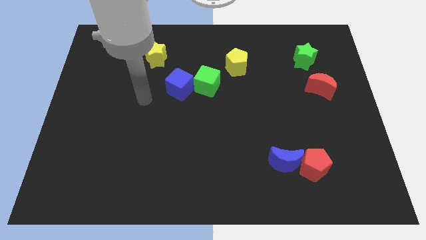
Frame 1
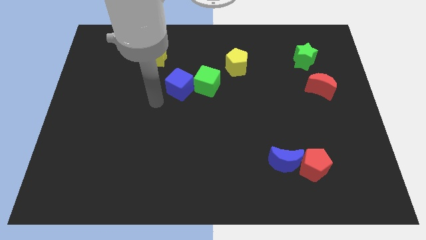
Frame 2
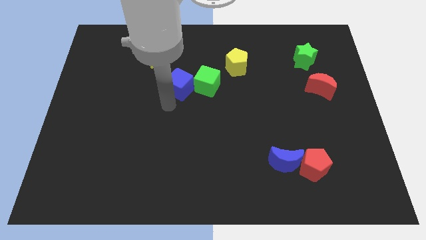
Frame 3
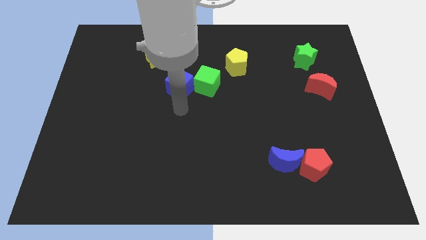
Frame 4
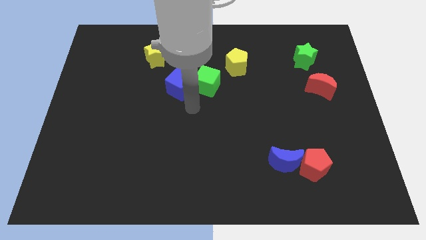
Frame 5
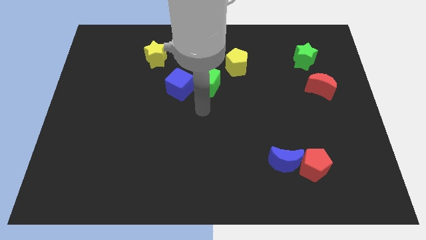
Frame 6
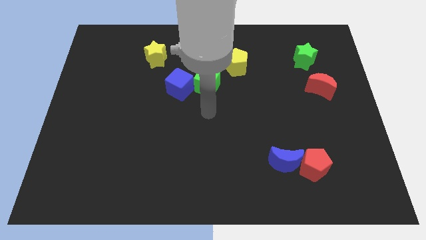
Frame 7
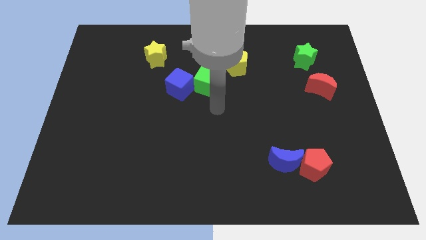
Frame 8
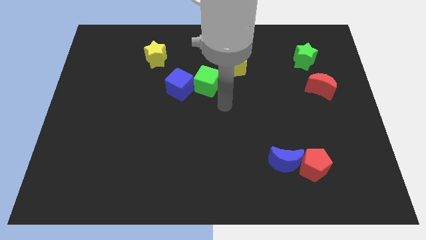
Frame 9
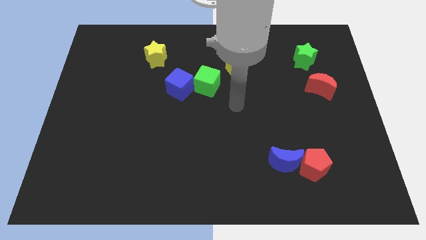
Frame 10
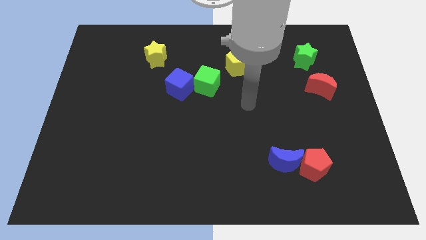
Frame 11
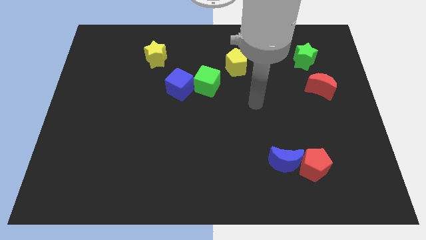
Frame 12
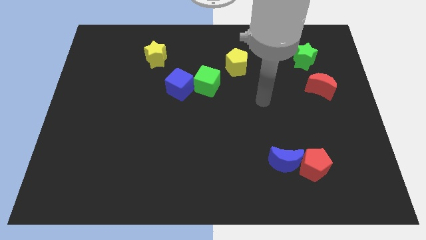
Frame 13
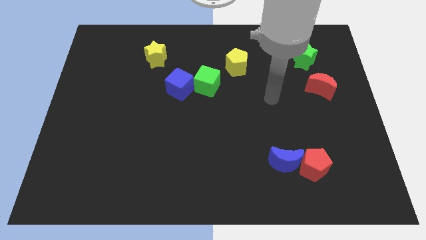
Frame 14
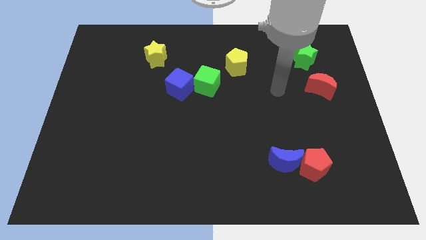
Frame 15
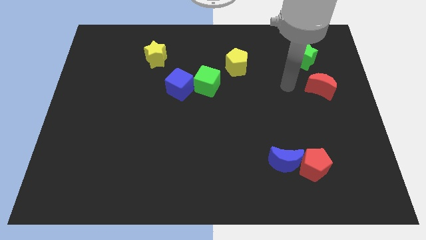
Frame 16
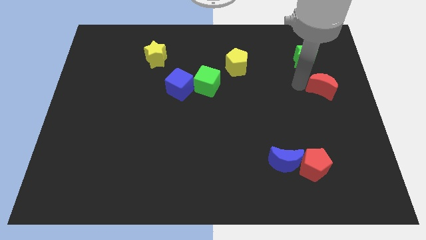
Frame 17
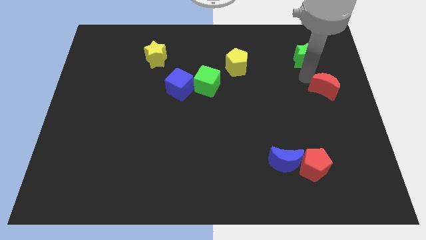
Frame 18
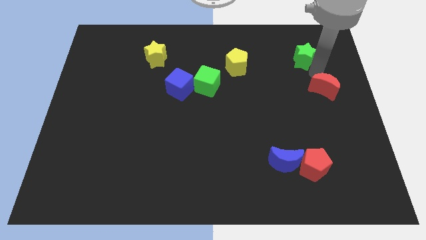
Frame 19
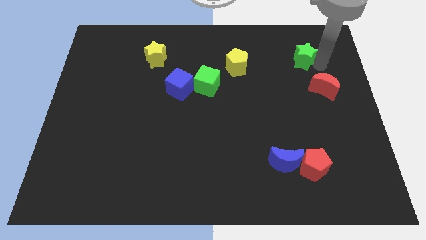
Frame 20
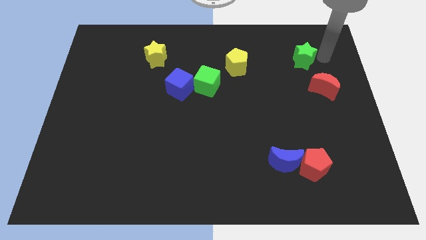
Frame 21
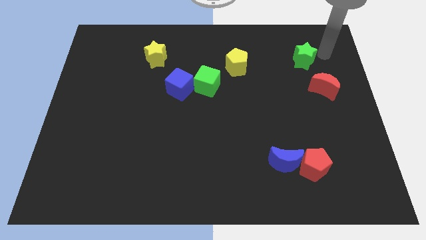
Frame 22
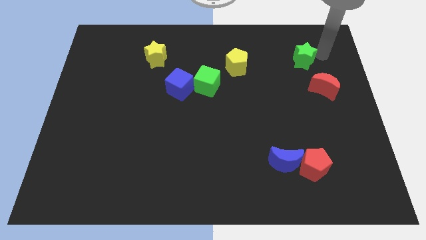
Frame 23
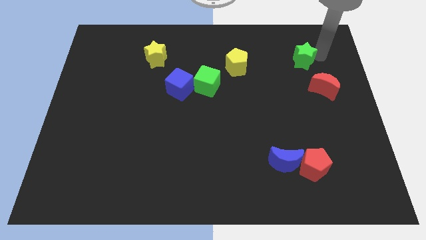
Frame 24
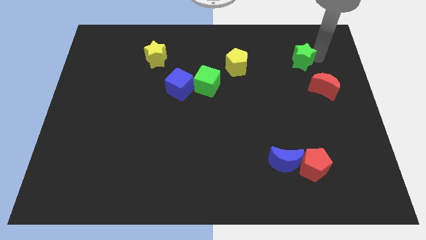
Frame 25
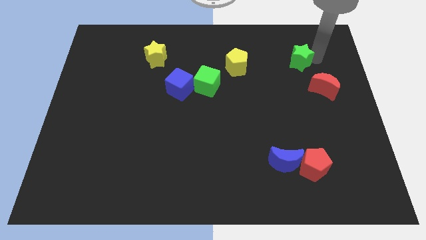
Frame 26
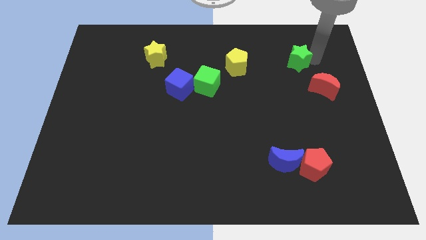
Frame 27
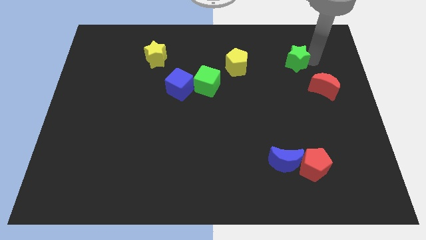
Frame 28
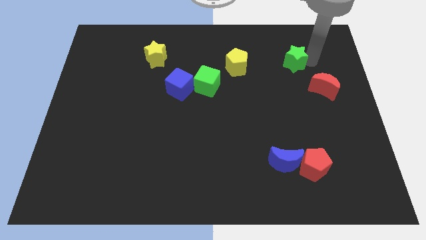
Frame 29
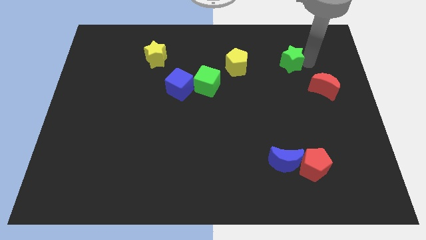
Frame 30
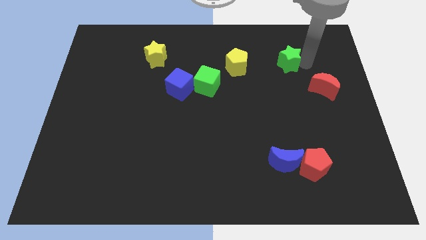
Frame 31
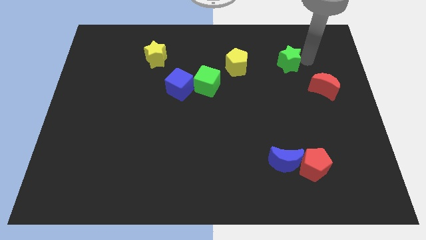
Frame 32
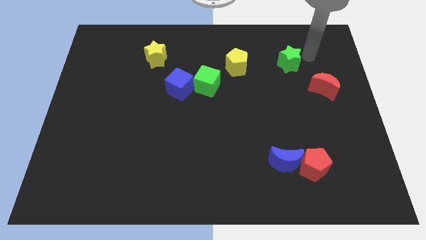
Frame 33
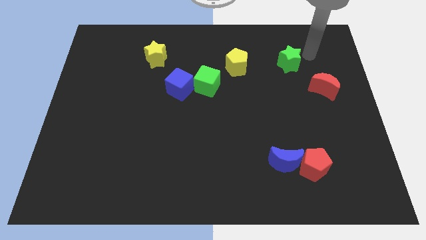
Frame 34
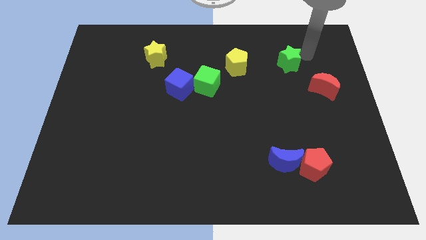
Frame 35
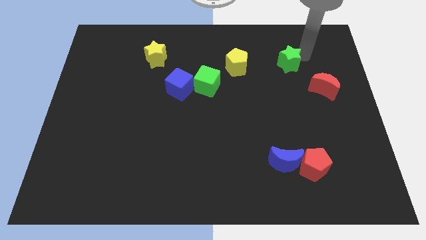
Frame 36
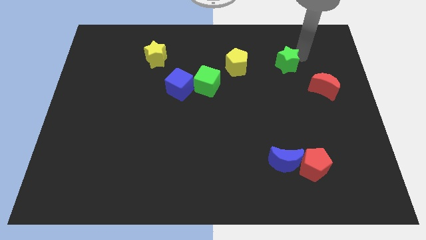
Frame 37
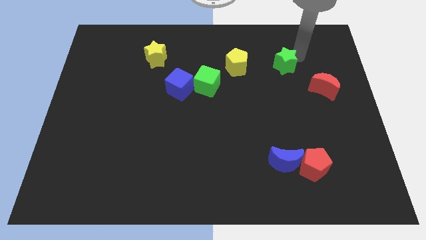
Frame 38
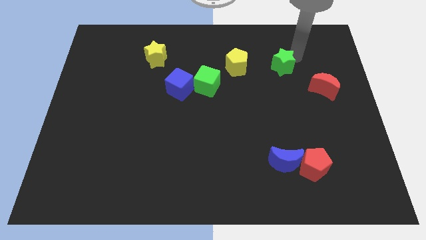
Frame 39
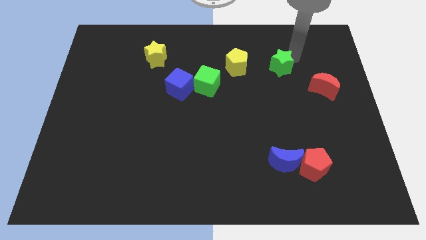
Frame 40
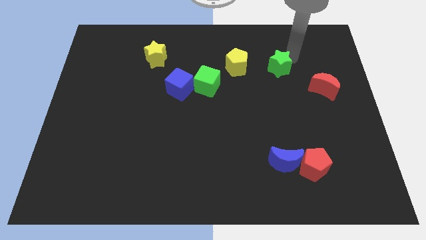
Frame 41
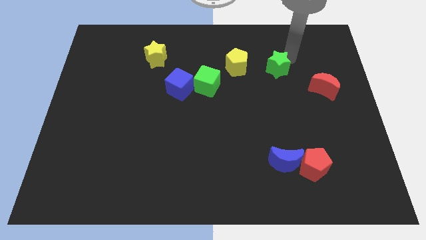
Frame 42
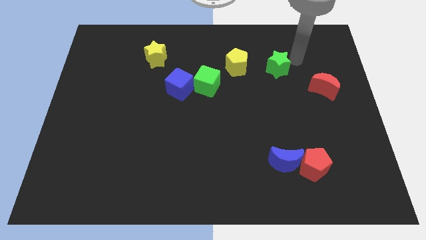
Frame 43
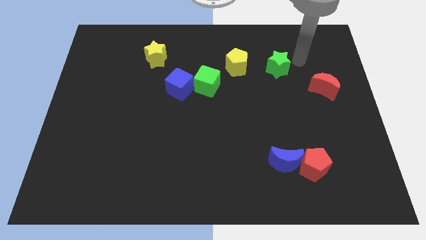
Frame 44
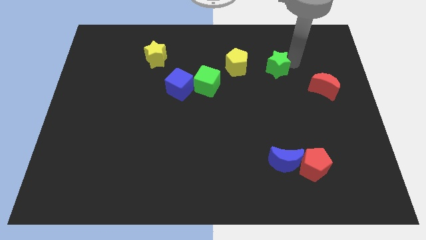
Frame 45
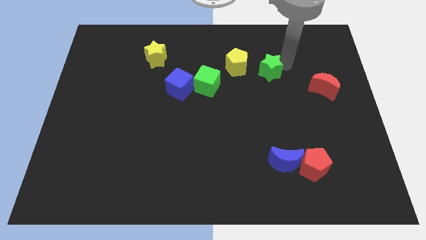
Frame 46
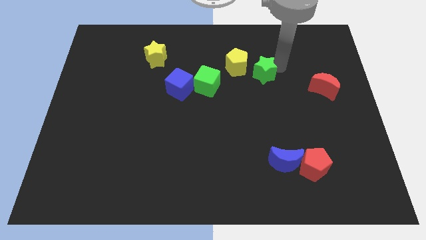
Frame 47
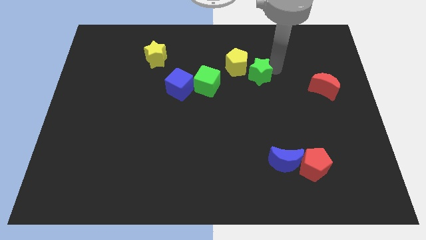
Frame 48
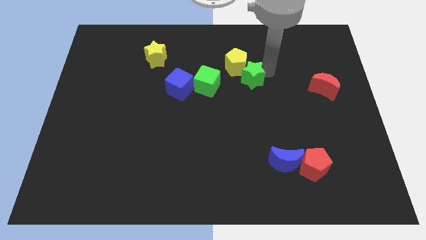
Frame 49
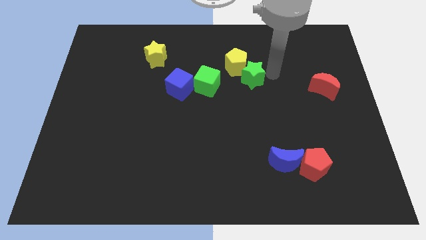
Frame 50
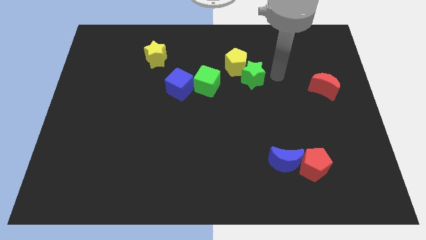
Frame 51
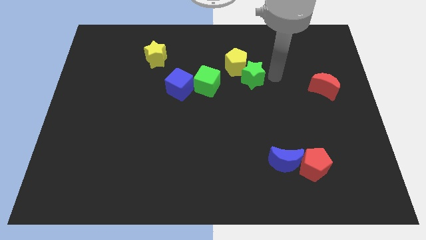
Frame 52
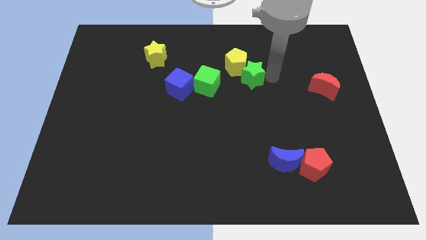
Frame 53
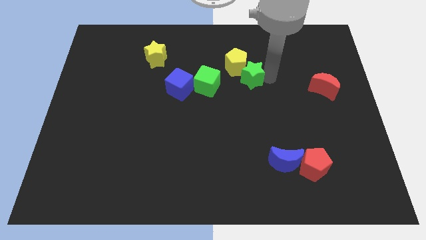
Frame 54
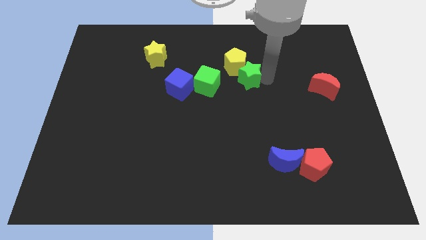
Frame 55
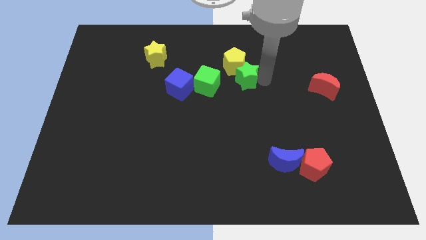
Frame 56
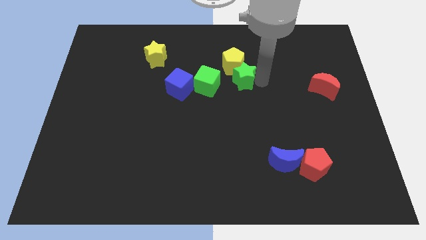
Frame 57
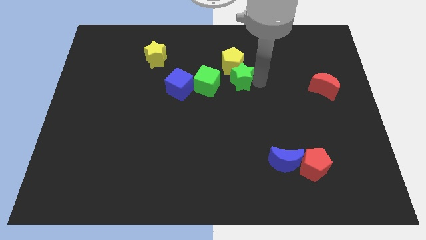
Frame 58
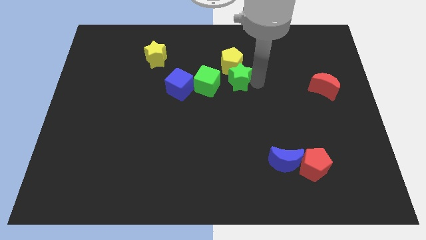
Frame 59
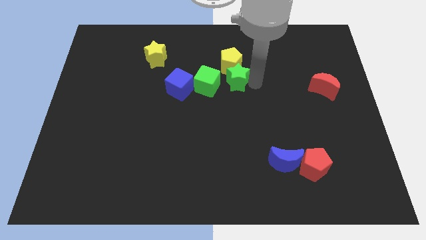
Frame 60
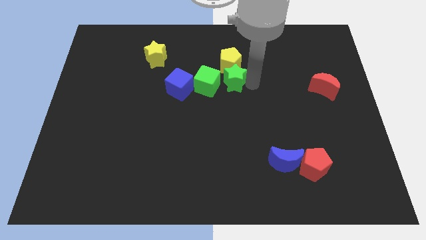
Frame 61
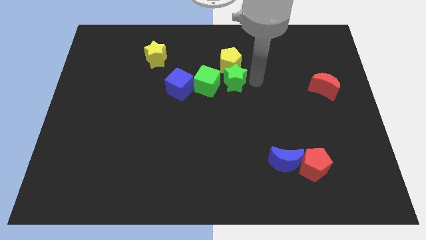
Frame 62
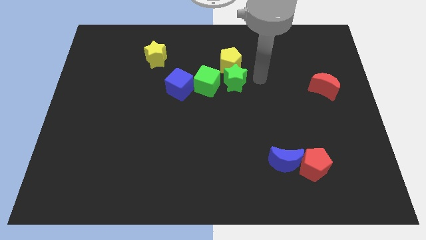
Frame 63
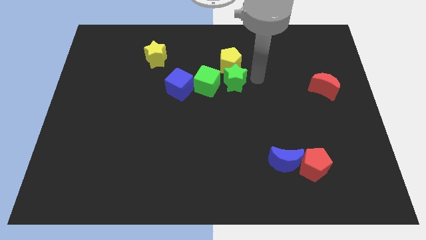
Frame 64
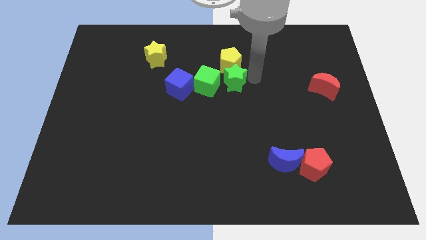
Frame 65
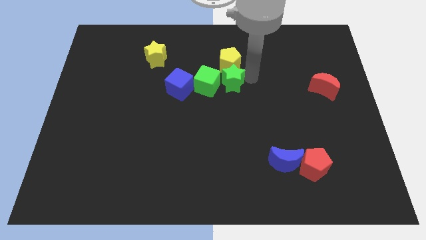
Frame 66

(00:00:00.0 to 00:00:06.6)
slide the green star to the green cube

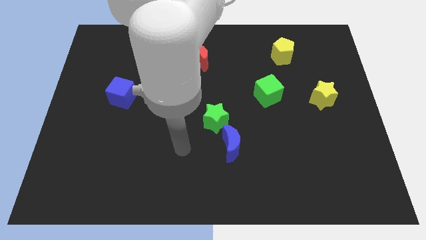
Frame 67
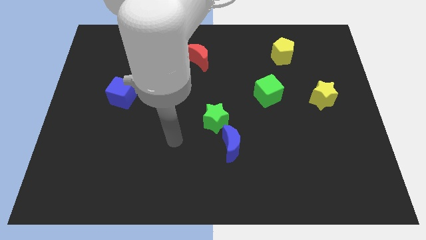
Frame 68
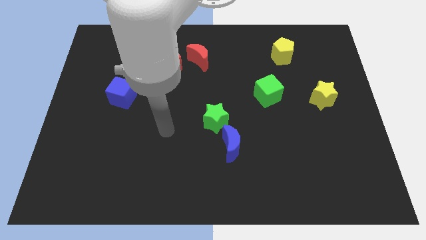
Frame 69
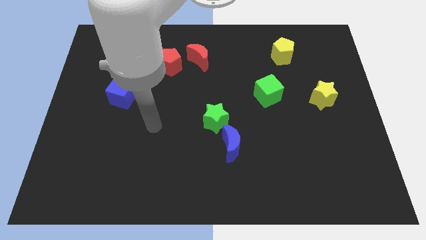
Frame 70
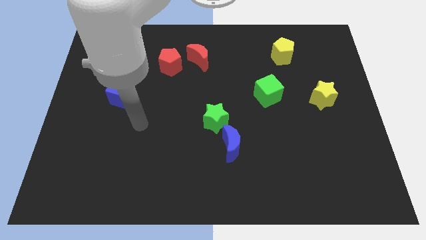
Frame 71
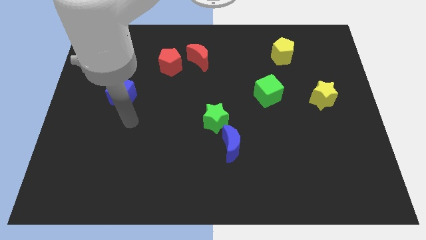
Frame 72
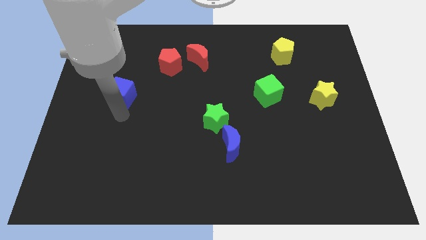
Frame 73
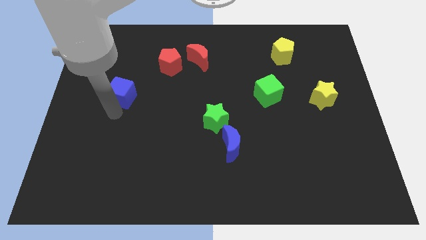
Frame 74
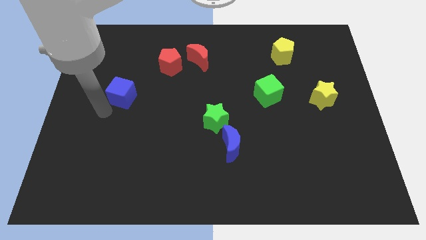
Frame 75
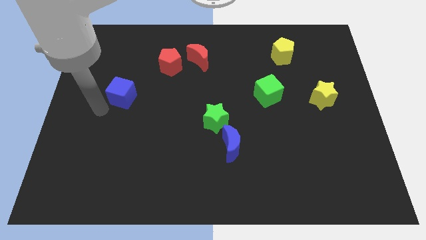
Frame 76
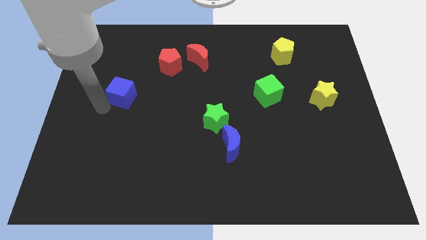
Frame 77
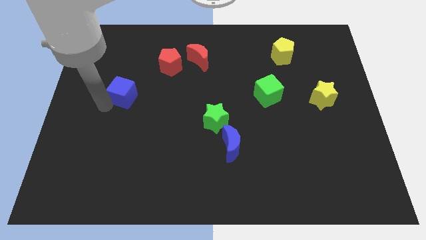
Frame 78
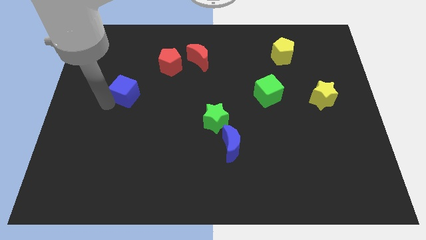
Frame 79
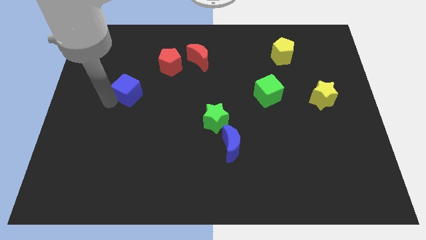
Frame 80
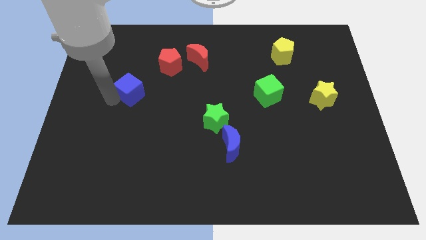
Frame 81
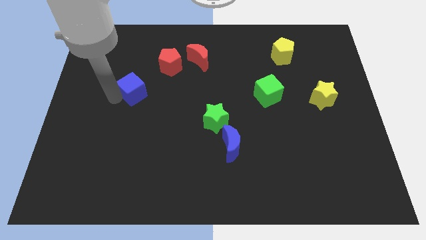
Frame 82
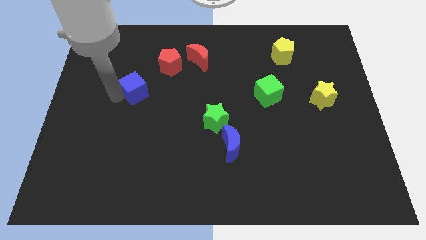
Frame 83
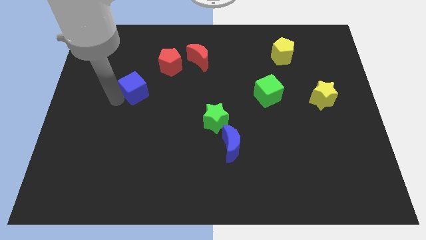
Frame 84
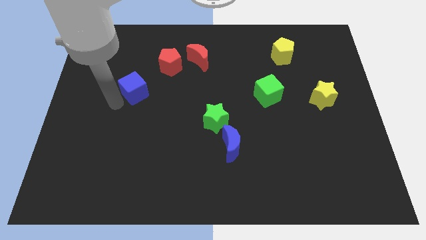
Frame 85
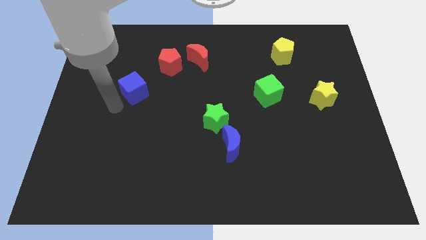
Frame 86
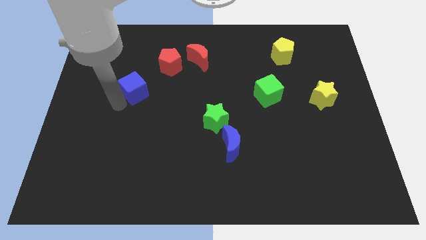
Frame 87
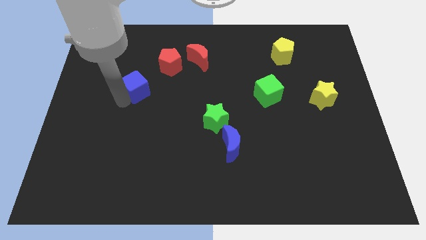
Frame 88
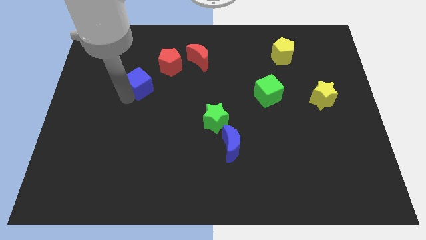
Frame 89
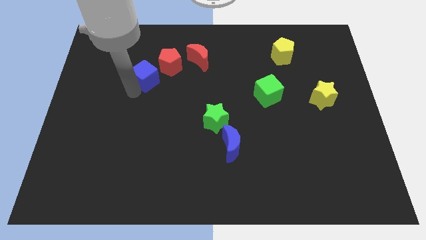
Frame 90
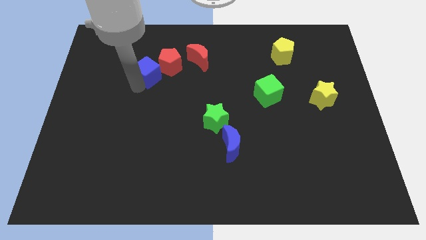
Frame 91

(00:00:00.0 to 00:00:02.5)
put the blue cube next to the red pentagon
